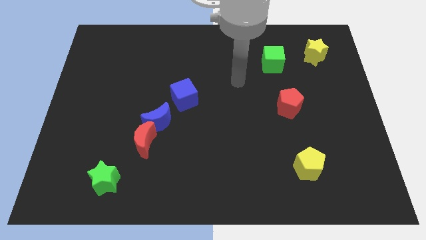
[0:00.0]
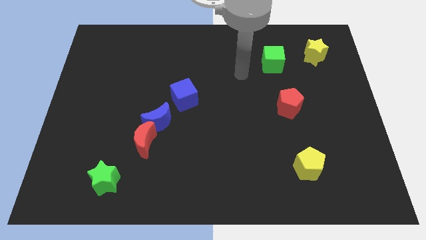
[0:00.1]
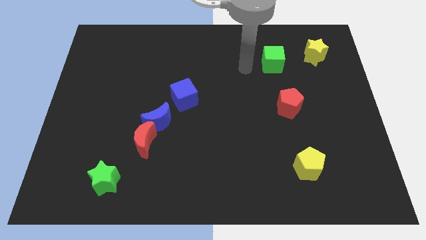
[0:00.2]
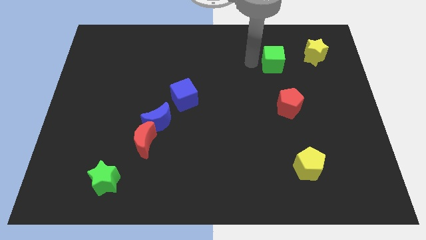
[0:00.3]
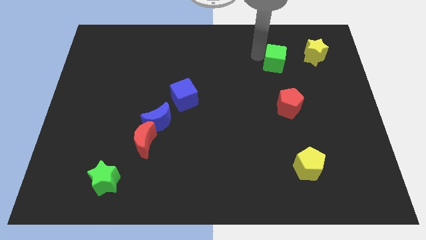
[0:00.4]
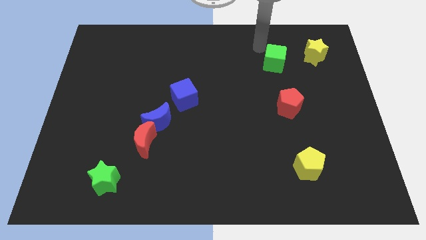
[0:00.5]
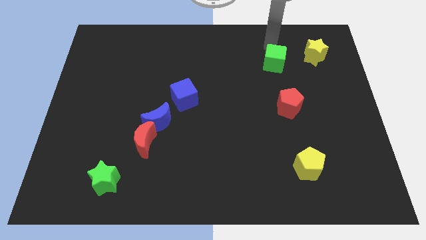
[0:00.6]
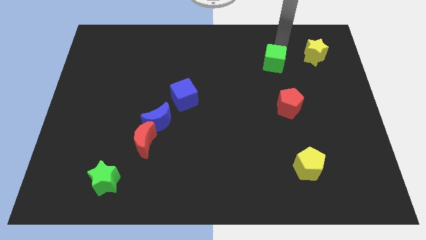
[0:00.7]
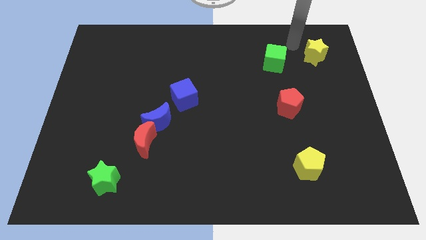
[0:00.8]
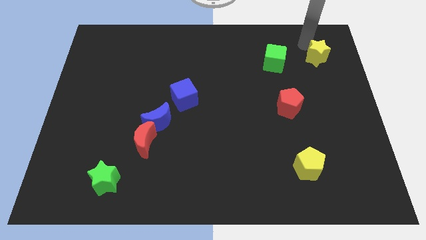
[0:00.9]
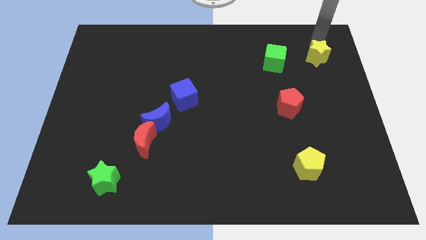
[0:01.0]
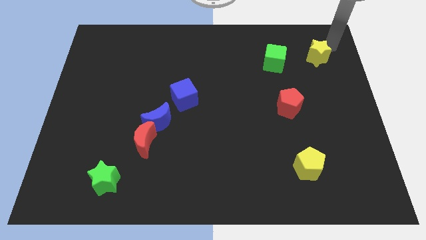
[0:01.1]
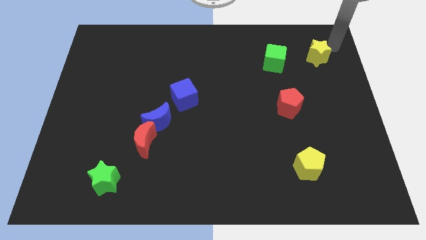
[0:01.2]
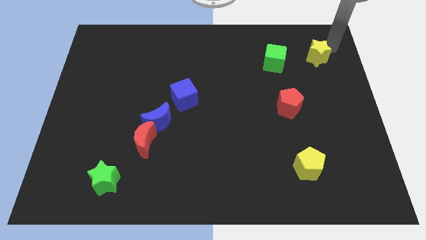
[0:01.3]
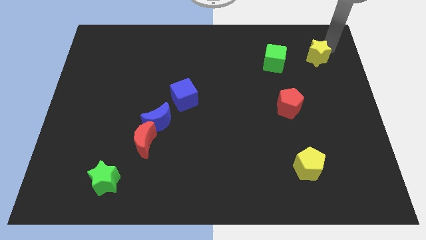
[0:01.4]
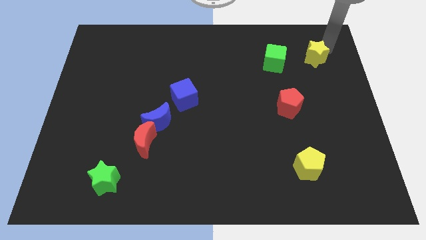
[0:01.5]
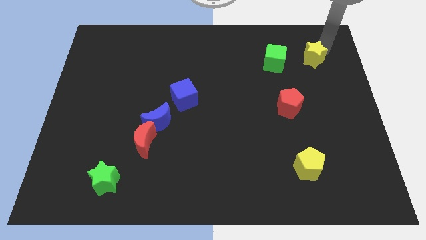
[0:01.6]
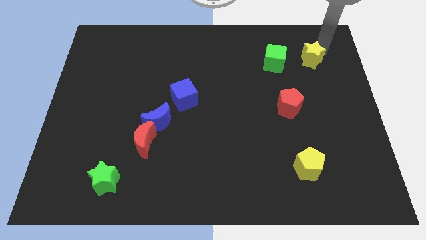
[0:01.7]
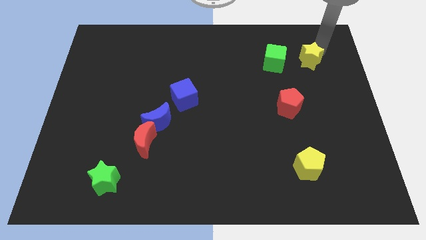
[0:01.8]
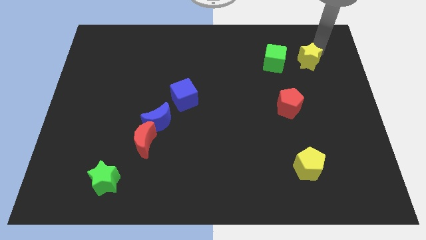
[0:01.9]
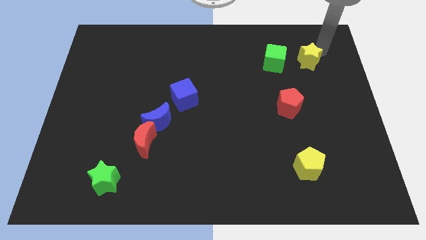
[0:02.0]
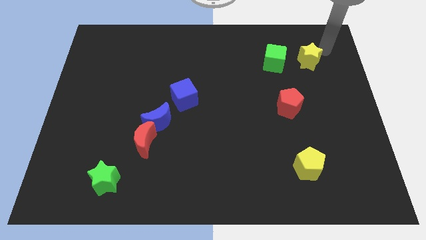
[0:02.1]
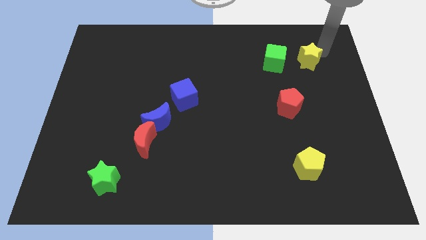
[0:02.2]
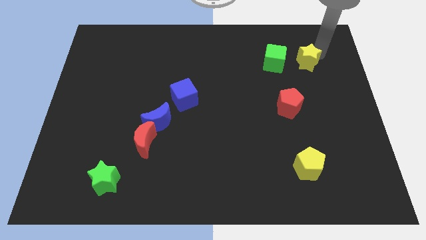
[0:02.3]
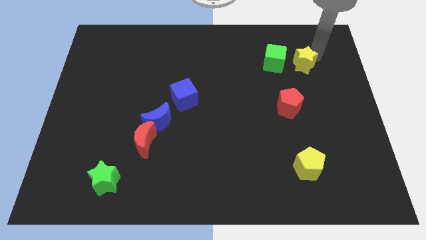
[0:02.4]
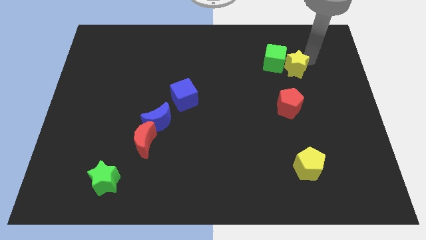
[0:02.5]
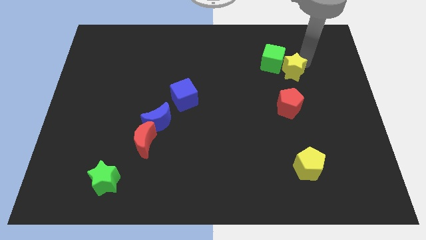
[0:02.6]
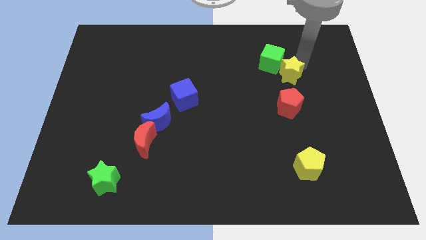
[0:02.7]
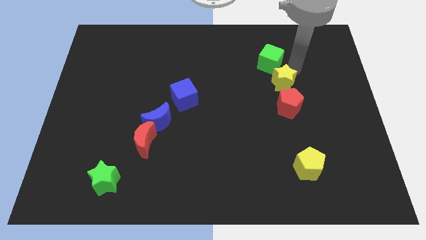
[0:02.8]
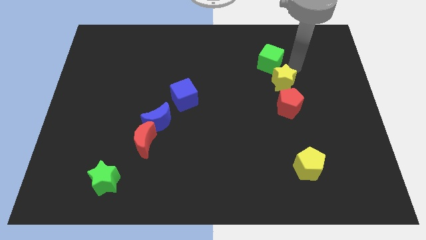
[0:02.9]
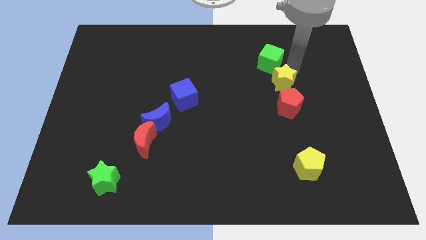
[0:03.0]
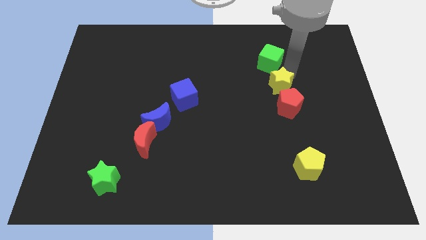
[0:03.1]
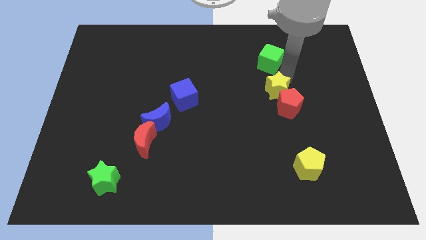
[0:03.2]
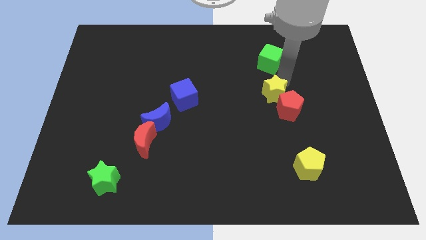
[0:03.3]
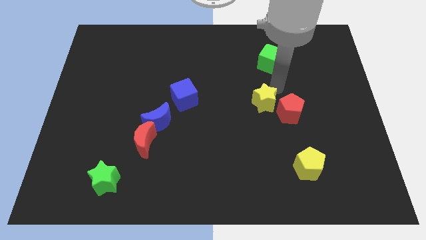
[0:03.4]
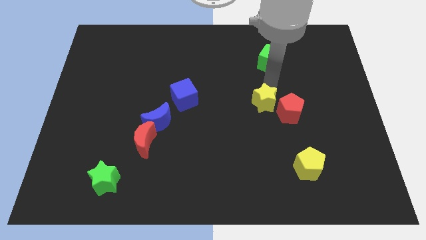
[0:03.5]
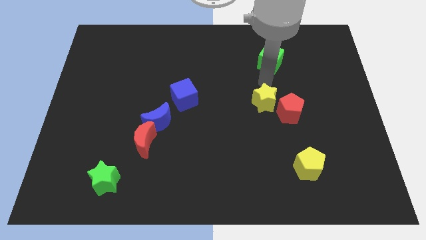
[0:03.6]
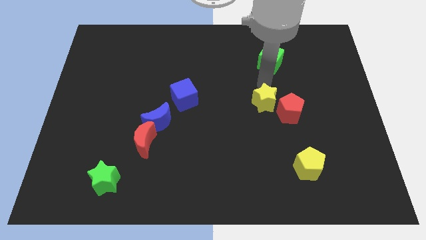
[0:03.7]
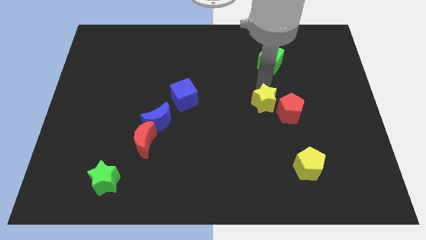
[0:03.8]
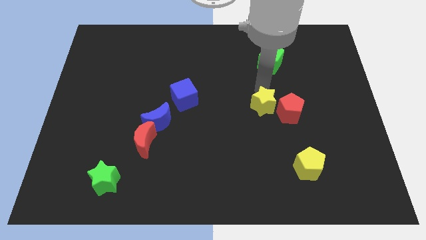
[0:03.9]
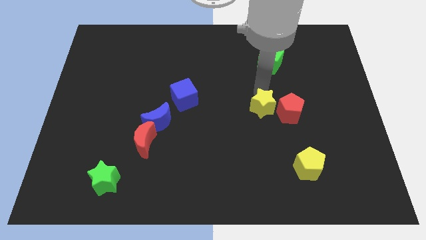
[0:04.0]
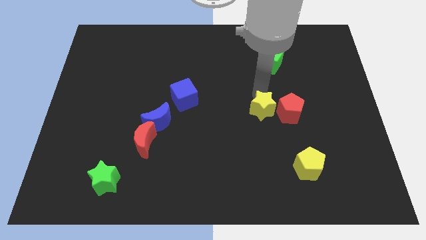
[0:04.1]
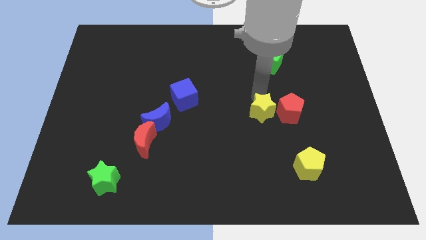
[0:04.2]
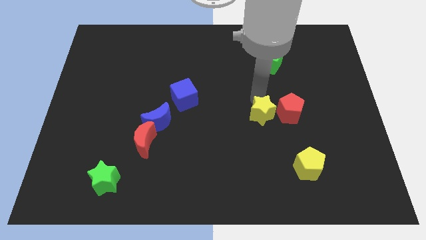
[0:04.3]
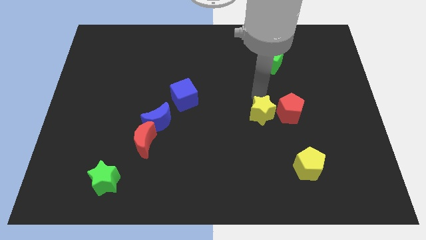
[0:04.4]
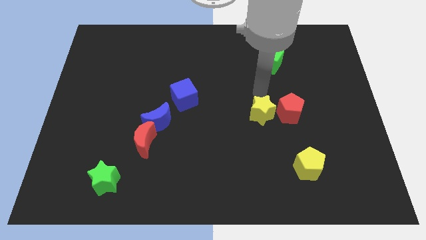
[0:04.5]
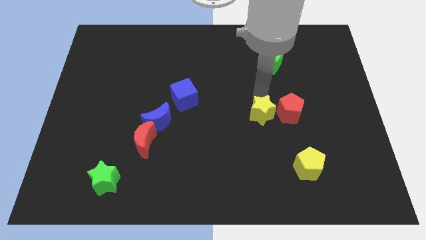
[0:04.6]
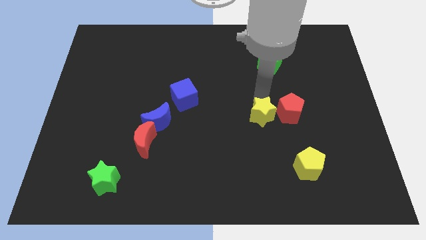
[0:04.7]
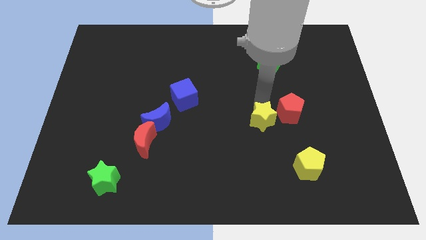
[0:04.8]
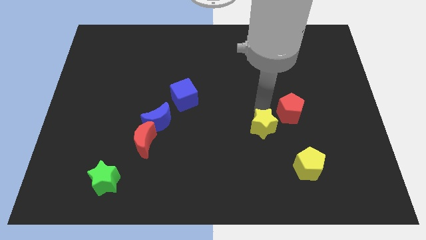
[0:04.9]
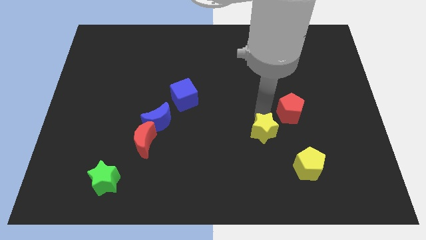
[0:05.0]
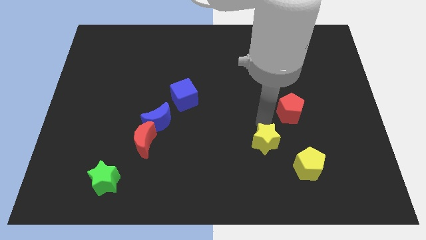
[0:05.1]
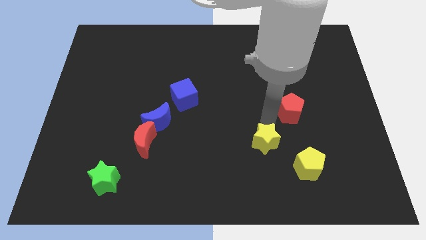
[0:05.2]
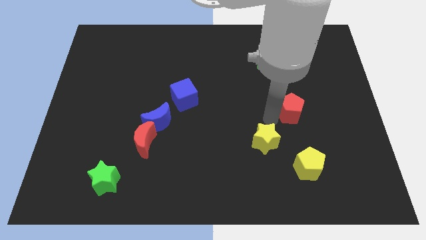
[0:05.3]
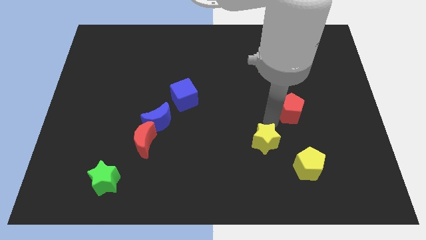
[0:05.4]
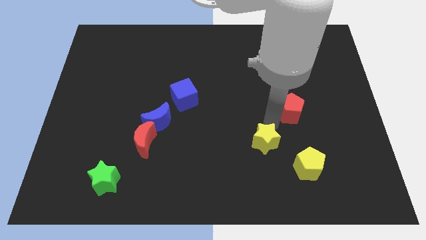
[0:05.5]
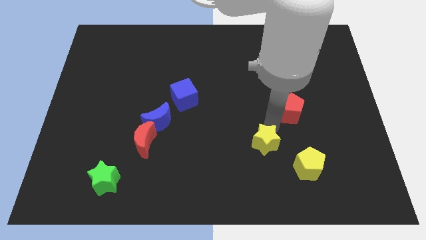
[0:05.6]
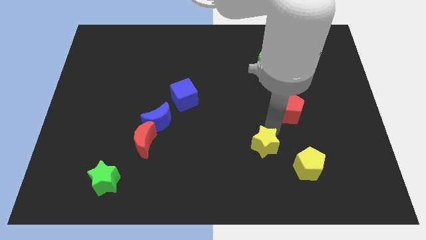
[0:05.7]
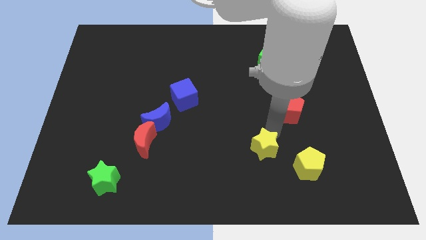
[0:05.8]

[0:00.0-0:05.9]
move the yellow star left of the yellow pentagon

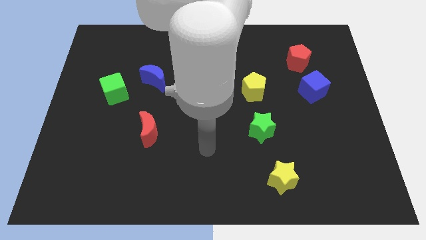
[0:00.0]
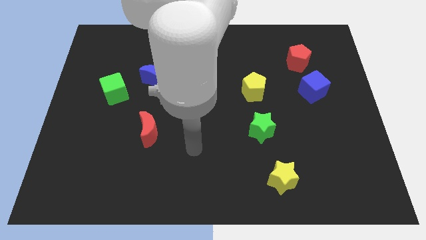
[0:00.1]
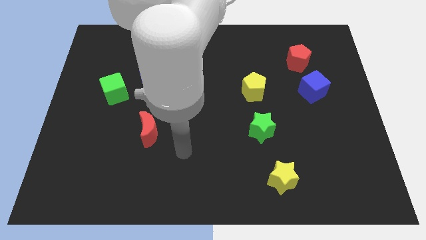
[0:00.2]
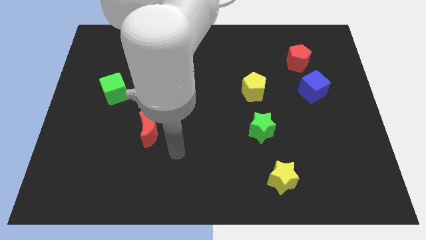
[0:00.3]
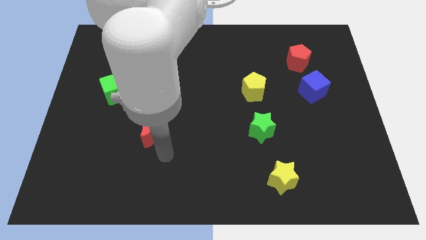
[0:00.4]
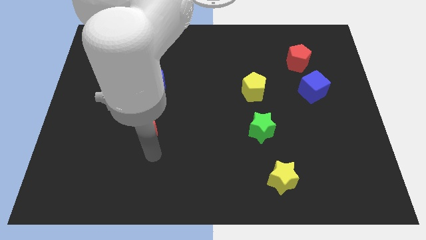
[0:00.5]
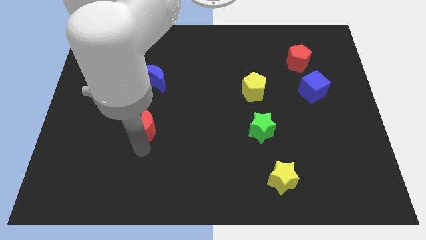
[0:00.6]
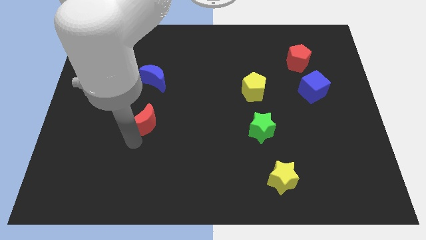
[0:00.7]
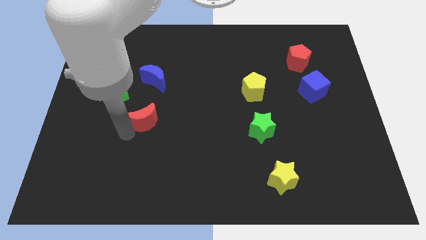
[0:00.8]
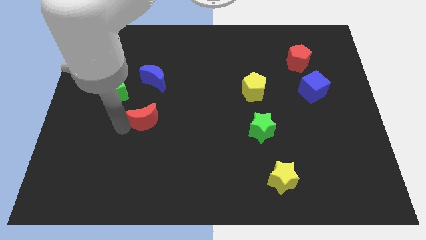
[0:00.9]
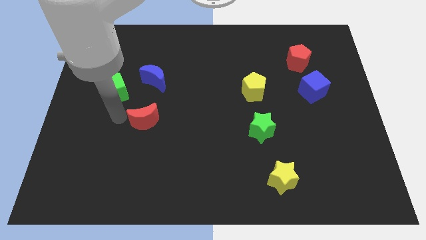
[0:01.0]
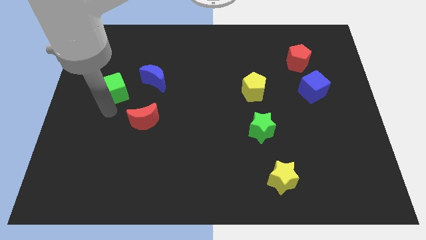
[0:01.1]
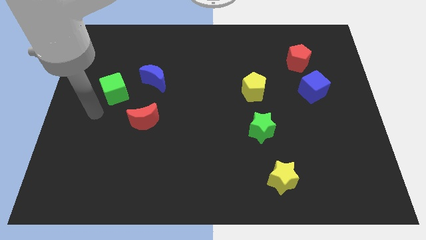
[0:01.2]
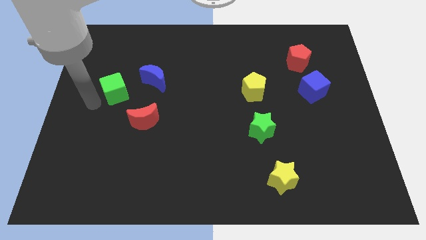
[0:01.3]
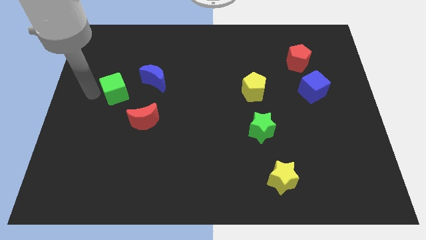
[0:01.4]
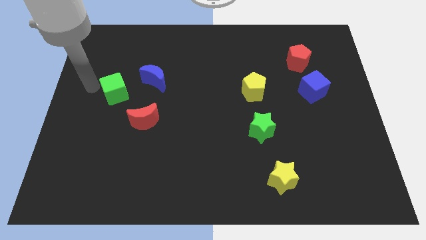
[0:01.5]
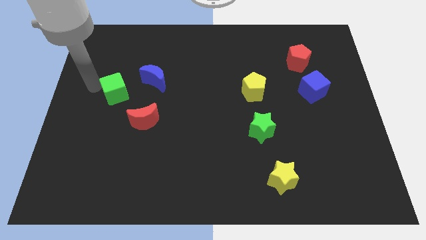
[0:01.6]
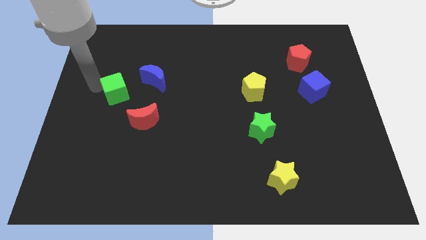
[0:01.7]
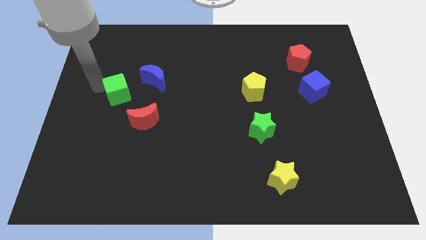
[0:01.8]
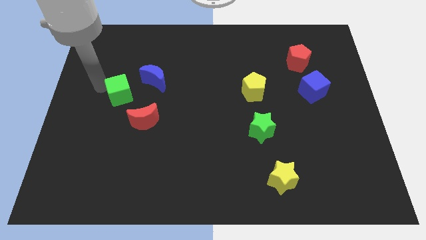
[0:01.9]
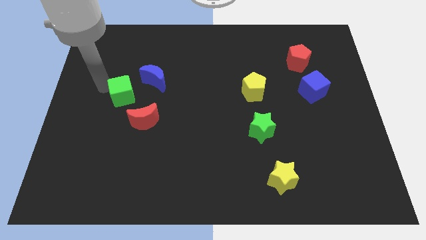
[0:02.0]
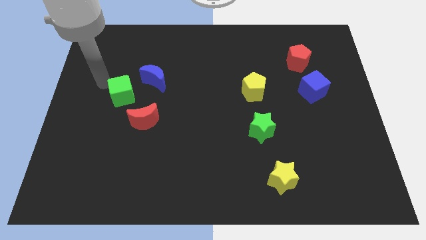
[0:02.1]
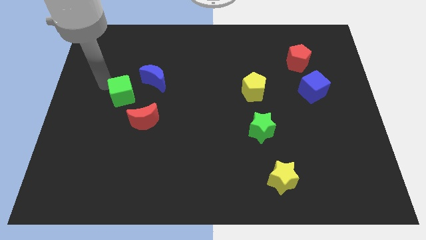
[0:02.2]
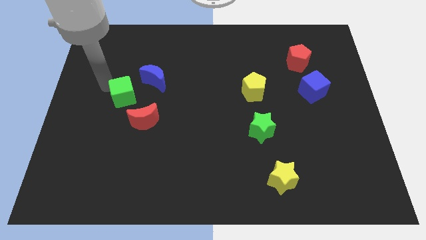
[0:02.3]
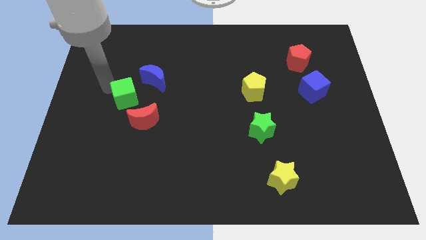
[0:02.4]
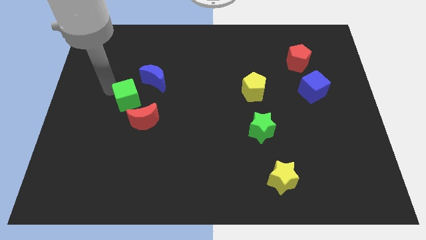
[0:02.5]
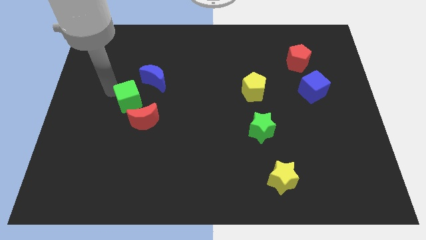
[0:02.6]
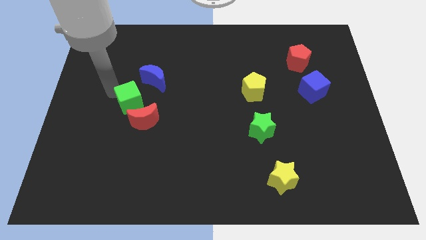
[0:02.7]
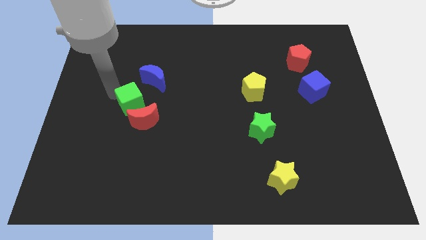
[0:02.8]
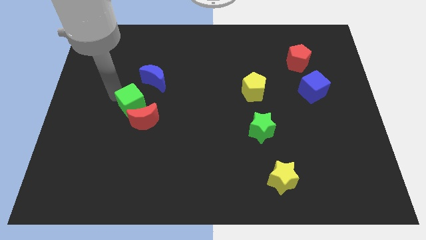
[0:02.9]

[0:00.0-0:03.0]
move the green cube to the bottom of the blue moon
